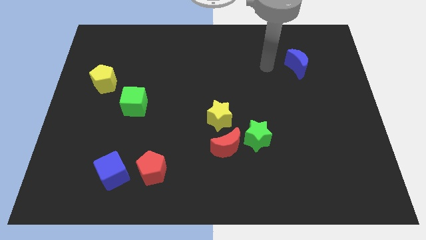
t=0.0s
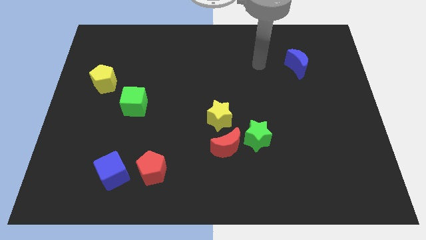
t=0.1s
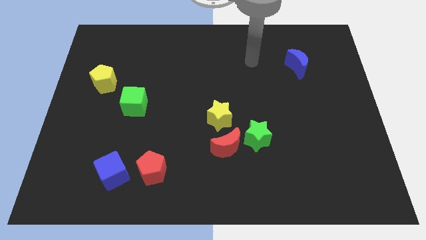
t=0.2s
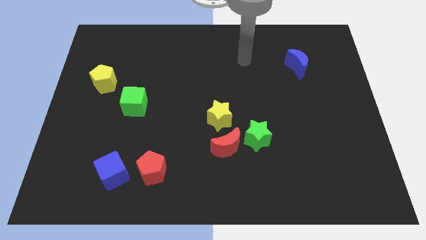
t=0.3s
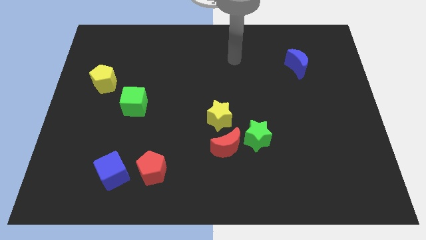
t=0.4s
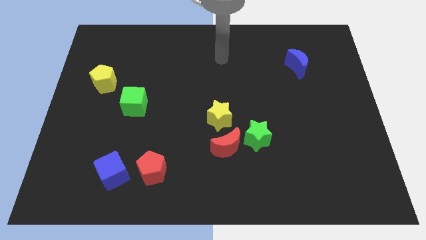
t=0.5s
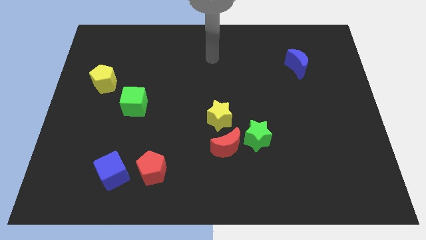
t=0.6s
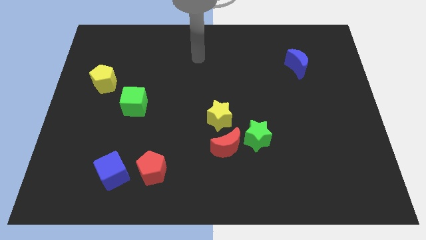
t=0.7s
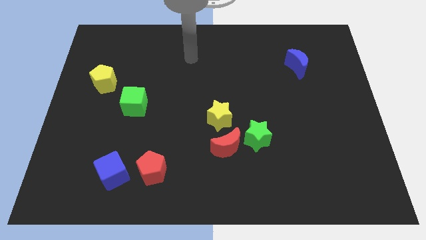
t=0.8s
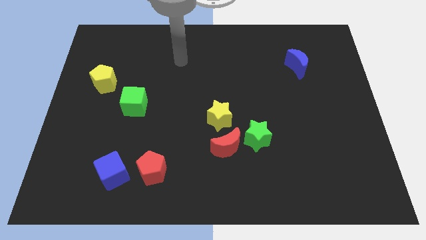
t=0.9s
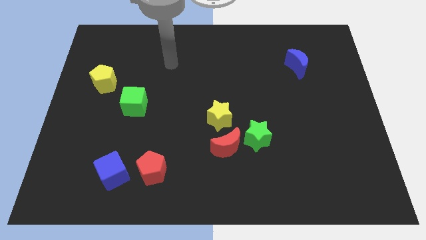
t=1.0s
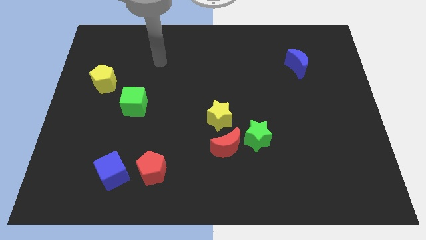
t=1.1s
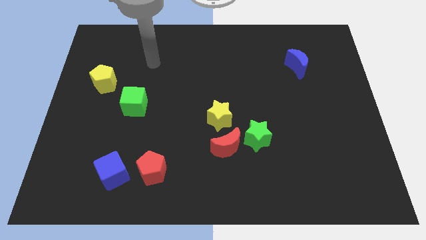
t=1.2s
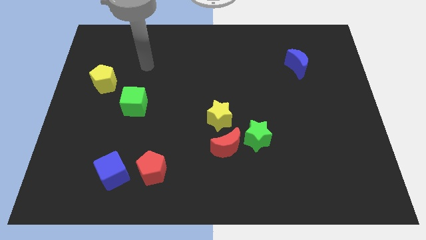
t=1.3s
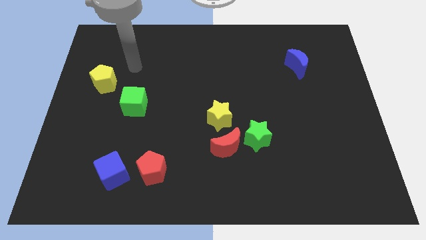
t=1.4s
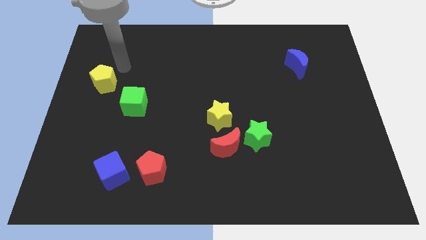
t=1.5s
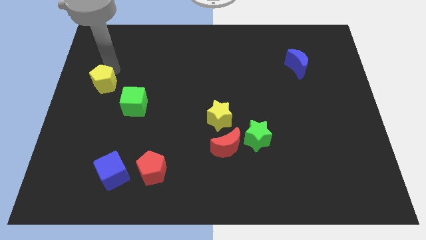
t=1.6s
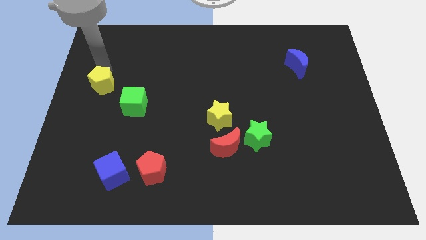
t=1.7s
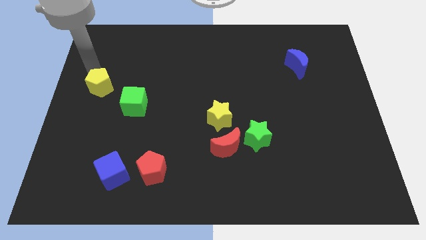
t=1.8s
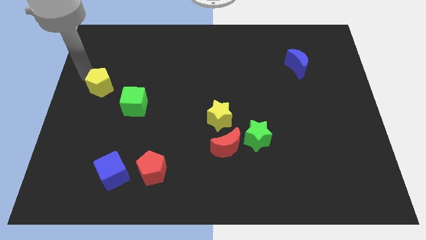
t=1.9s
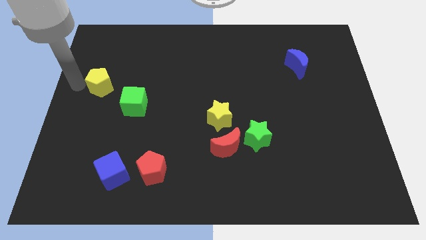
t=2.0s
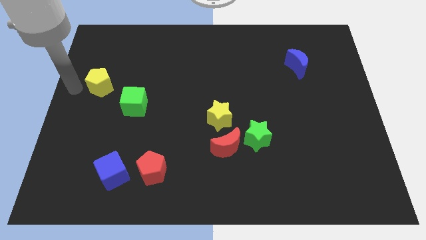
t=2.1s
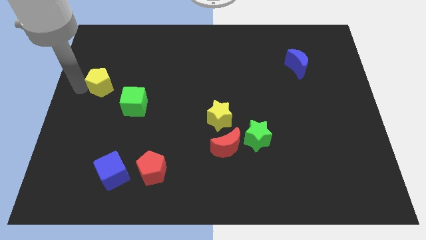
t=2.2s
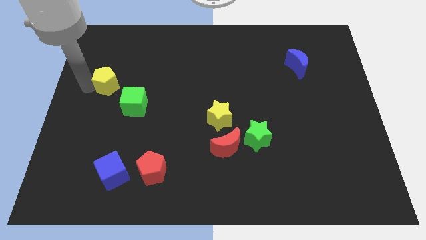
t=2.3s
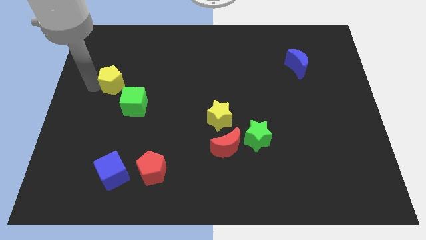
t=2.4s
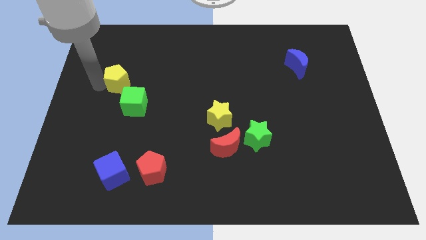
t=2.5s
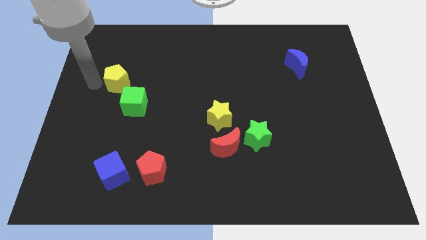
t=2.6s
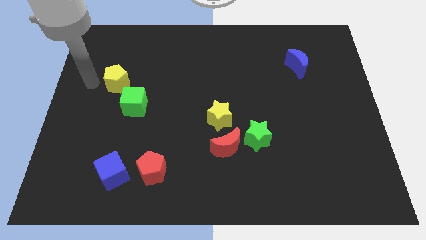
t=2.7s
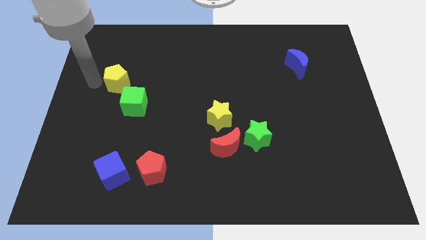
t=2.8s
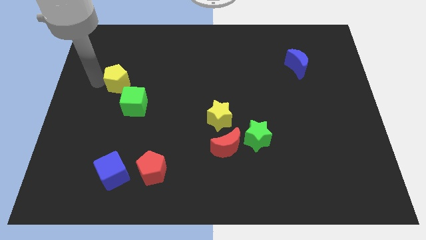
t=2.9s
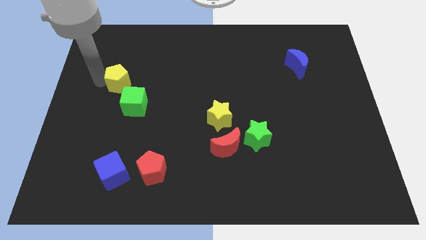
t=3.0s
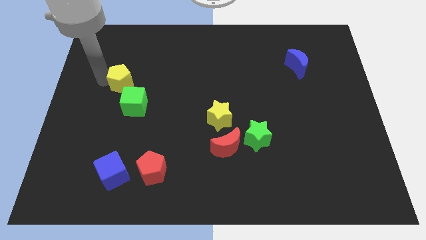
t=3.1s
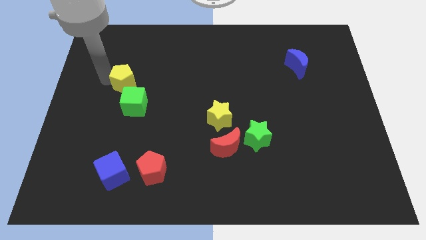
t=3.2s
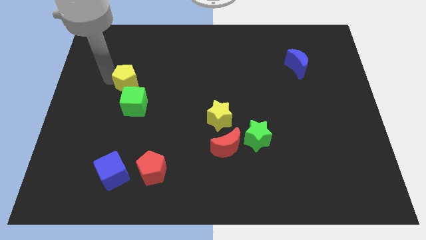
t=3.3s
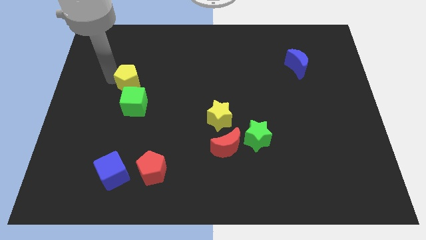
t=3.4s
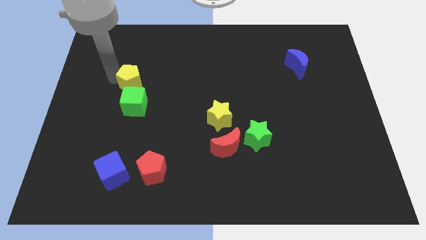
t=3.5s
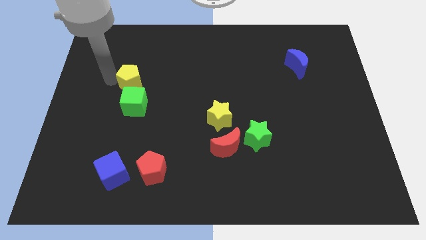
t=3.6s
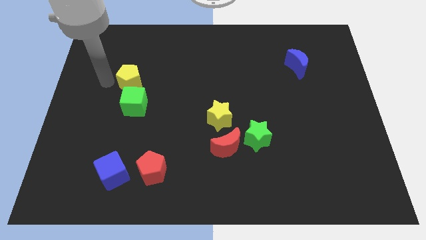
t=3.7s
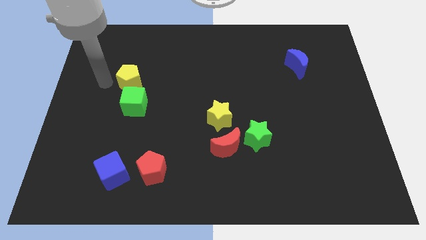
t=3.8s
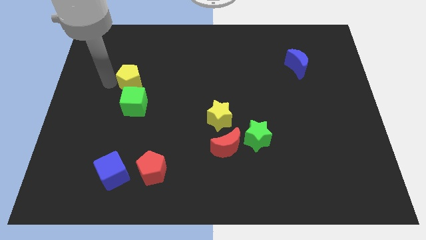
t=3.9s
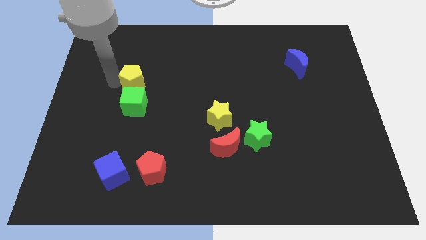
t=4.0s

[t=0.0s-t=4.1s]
move the yellow pentagon a bit to the right

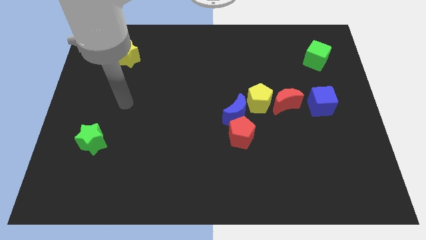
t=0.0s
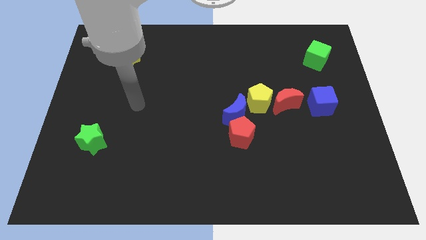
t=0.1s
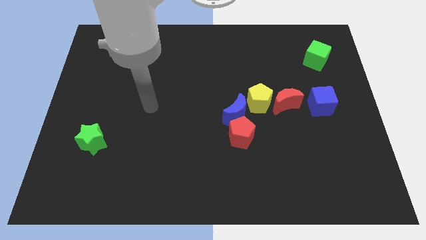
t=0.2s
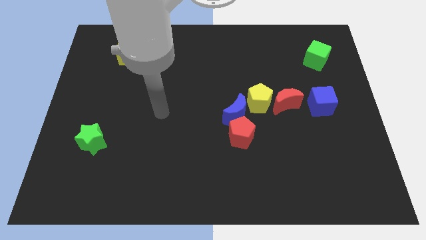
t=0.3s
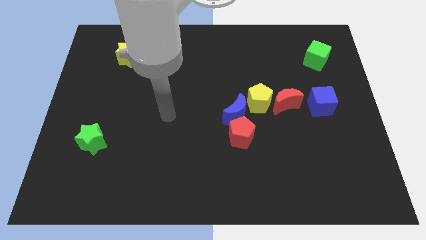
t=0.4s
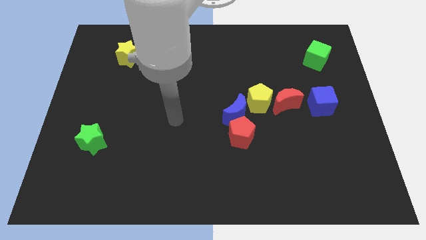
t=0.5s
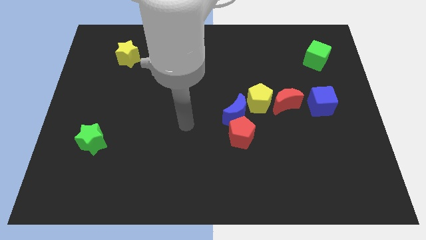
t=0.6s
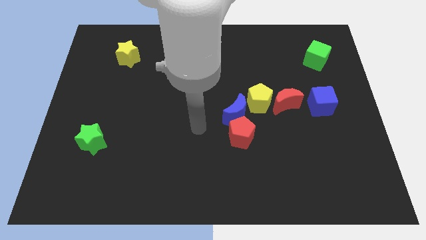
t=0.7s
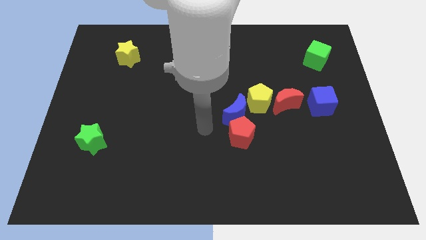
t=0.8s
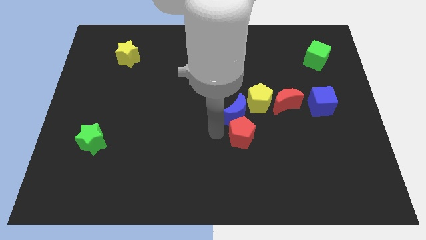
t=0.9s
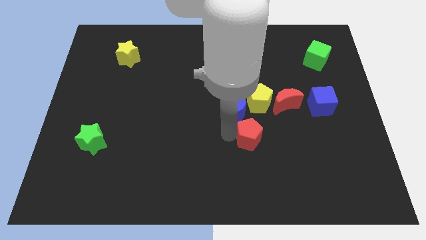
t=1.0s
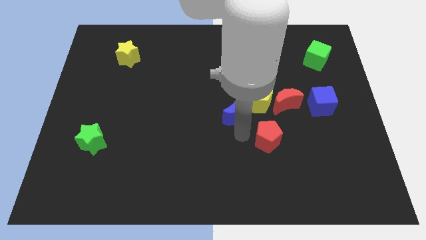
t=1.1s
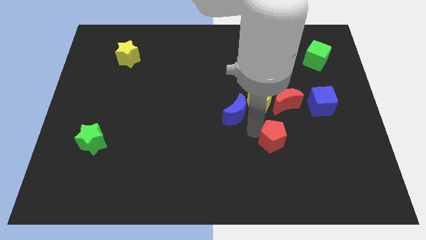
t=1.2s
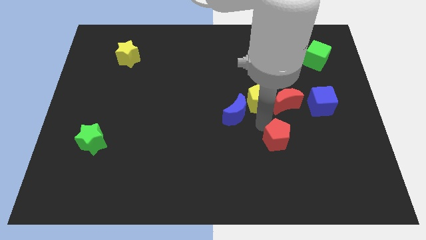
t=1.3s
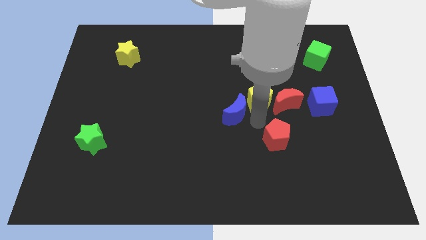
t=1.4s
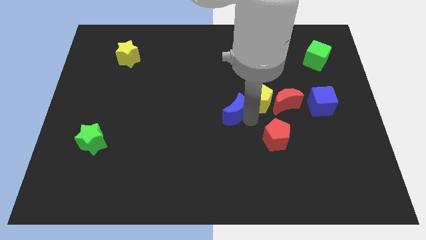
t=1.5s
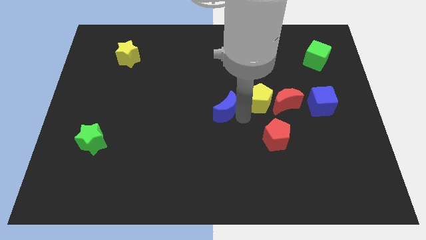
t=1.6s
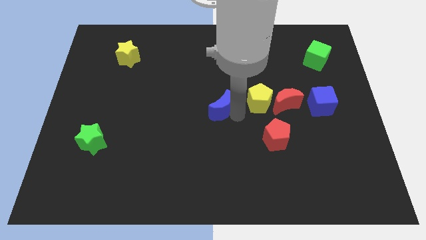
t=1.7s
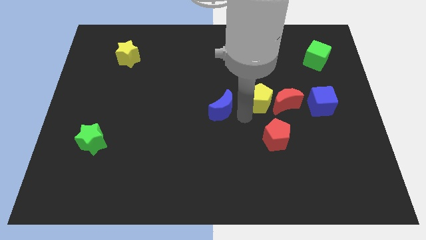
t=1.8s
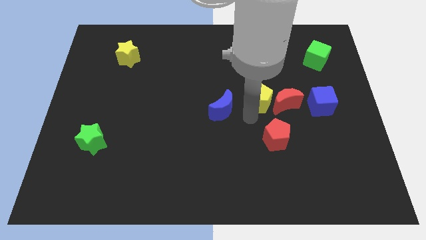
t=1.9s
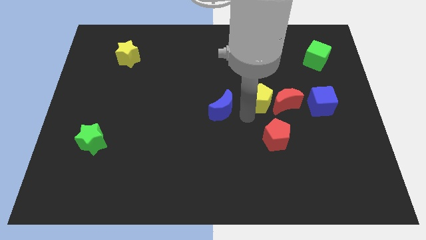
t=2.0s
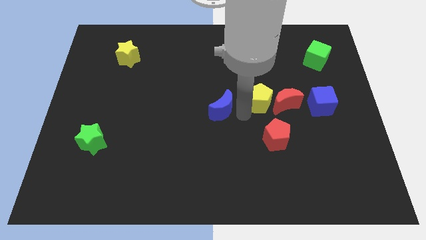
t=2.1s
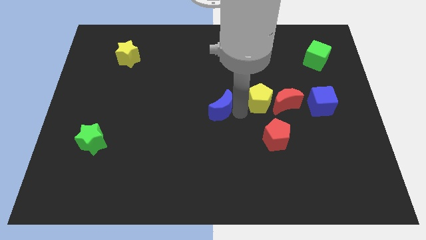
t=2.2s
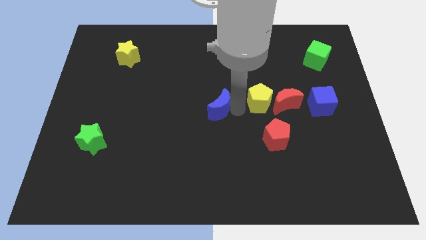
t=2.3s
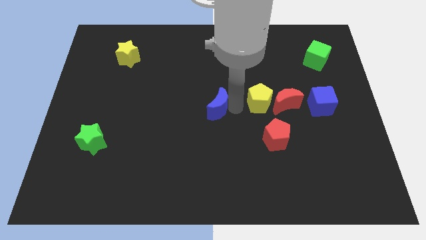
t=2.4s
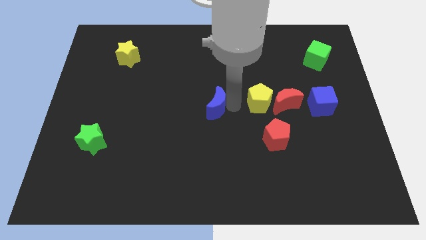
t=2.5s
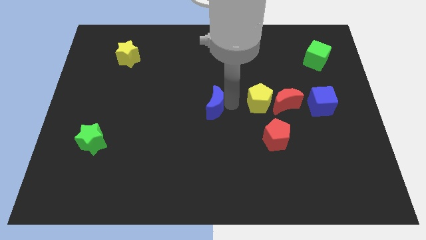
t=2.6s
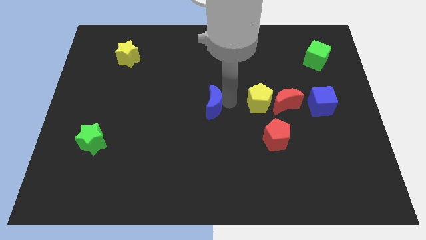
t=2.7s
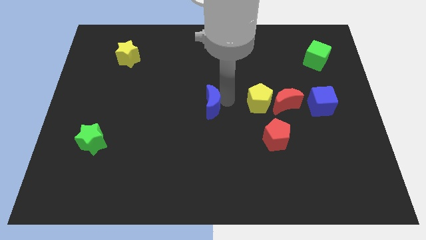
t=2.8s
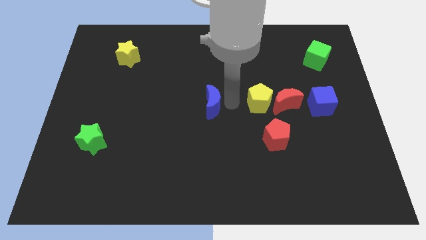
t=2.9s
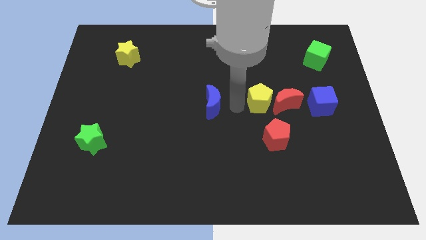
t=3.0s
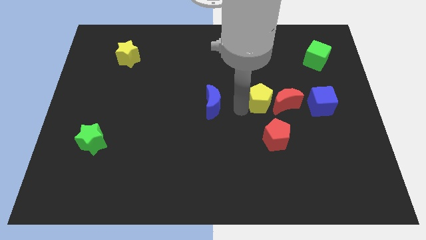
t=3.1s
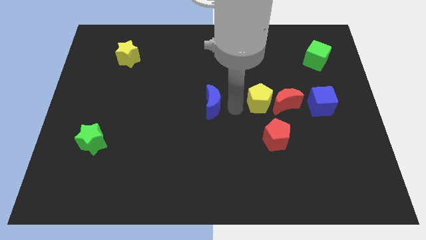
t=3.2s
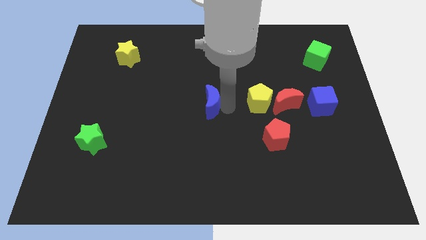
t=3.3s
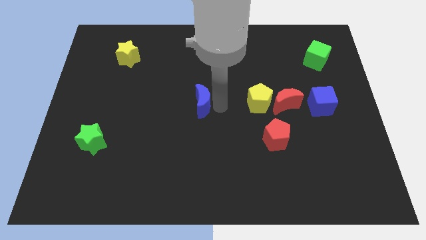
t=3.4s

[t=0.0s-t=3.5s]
slide the blue moon to the left slightly

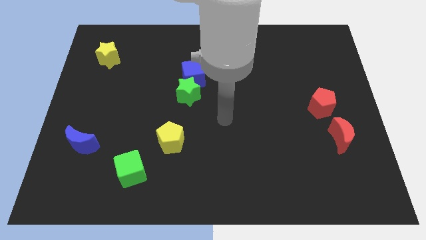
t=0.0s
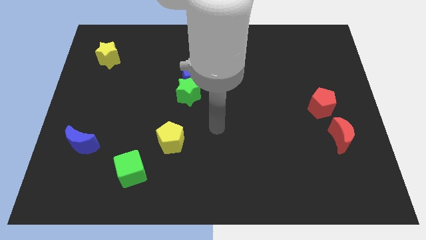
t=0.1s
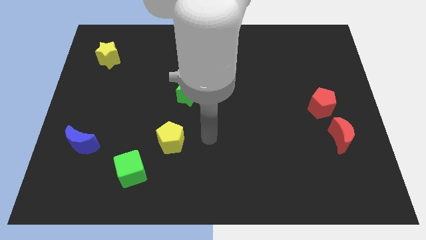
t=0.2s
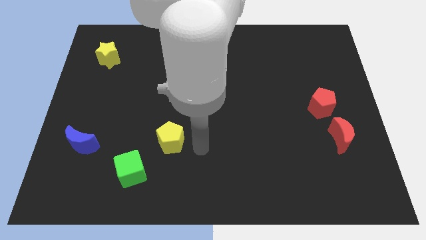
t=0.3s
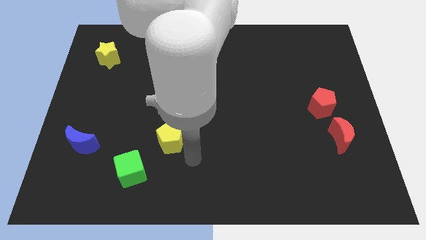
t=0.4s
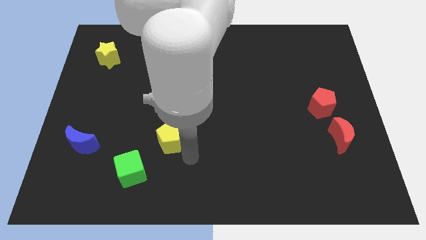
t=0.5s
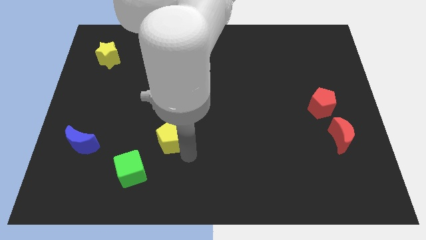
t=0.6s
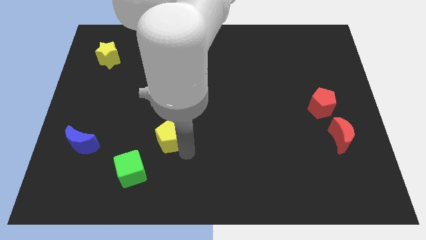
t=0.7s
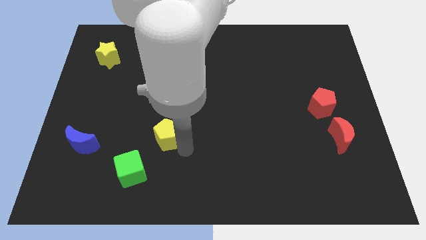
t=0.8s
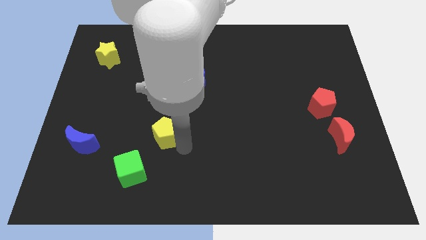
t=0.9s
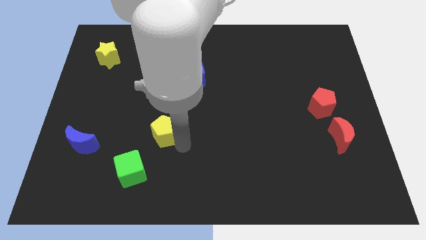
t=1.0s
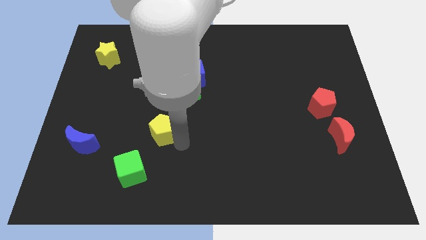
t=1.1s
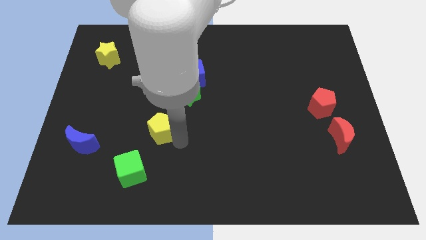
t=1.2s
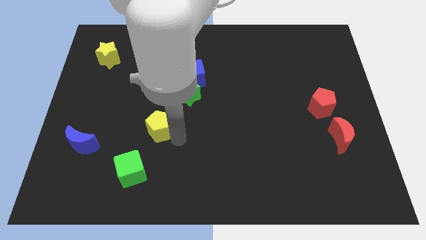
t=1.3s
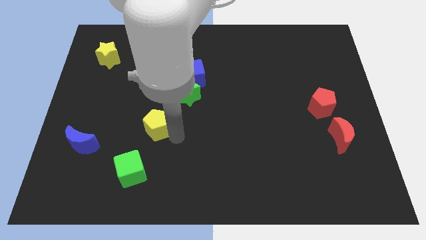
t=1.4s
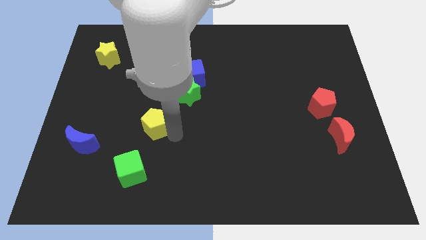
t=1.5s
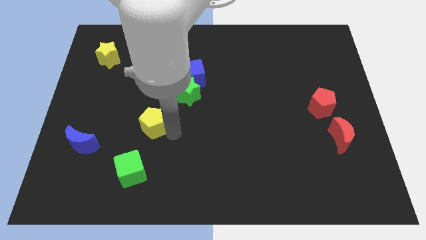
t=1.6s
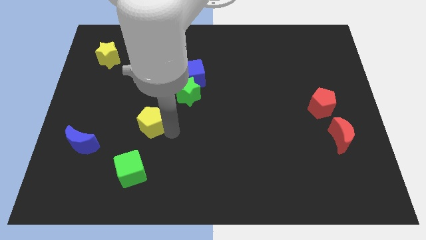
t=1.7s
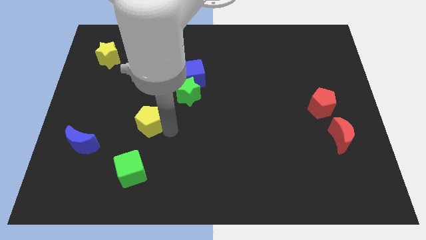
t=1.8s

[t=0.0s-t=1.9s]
slightly push the yellow pentagon upwards and left
